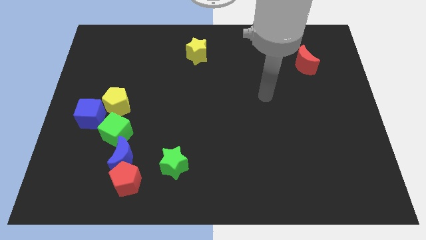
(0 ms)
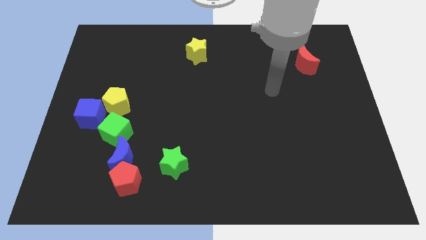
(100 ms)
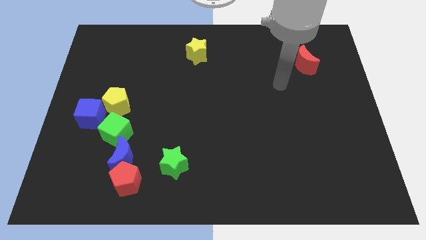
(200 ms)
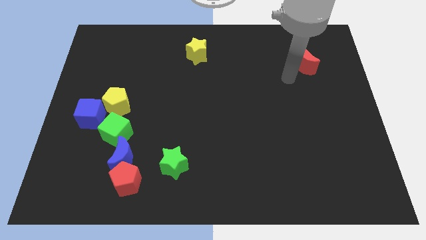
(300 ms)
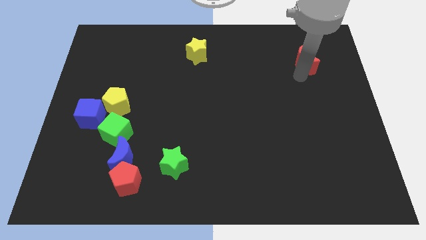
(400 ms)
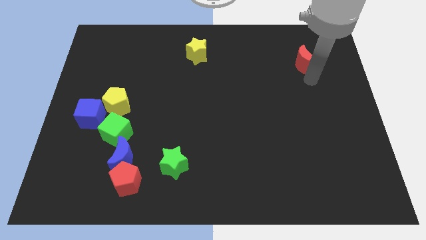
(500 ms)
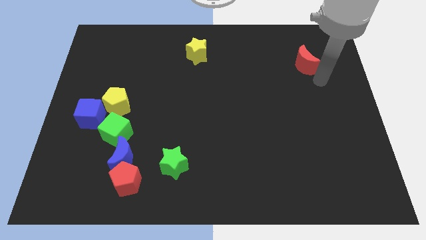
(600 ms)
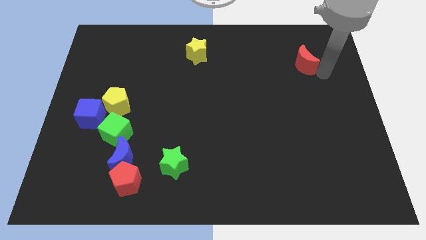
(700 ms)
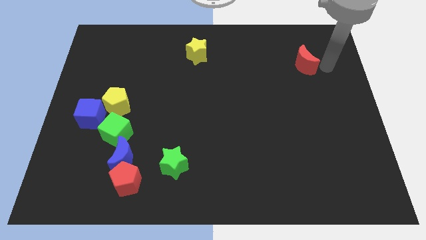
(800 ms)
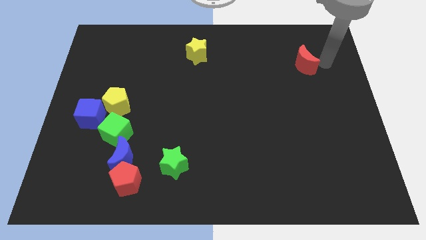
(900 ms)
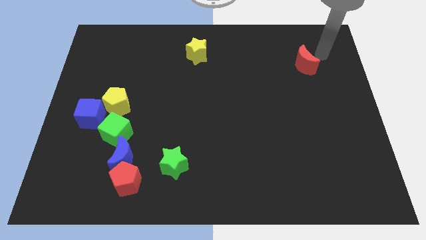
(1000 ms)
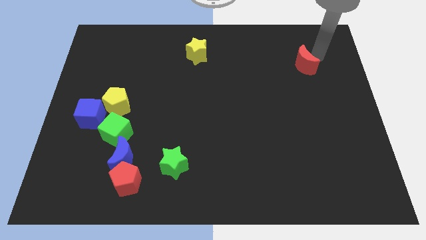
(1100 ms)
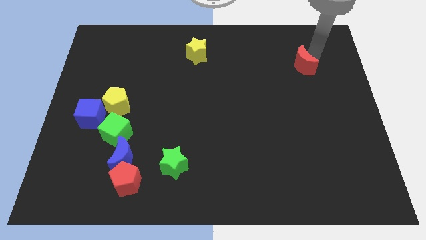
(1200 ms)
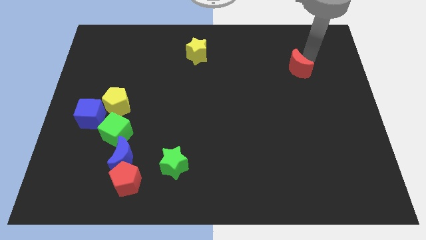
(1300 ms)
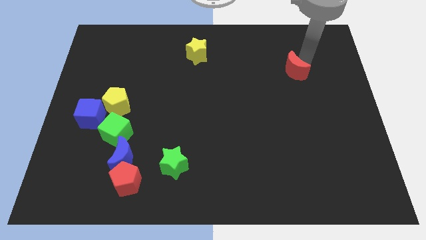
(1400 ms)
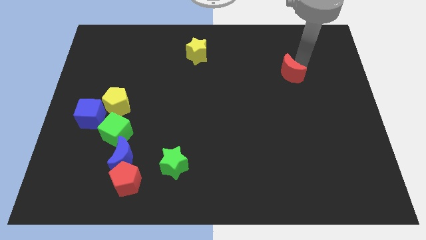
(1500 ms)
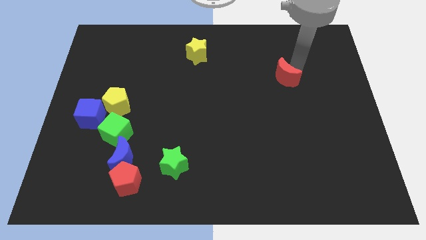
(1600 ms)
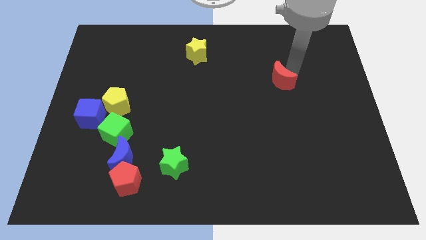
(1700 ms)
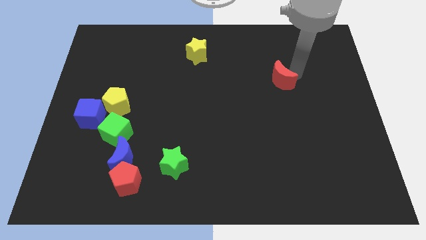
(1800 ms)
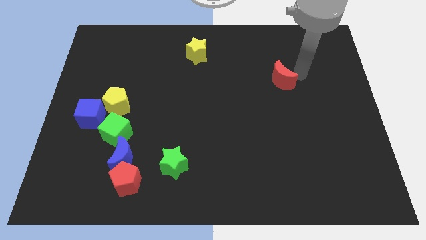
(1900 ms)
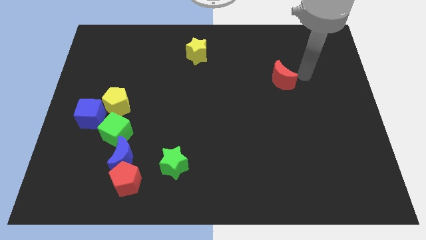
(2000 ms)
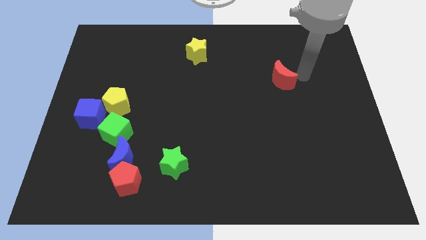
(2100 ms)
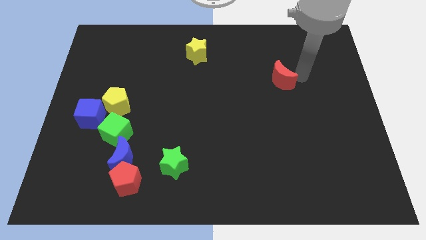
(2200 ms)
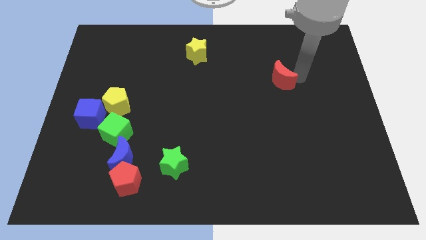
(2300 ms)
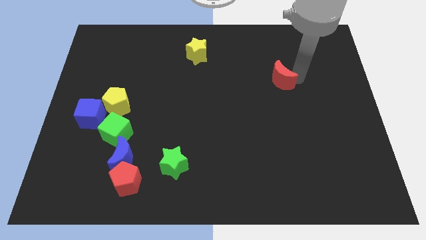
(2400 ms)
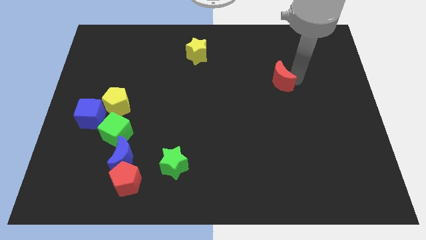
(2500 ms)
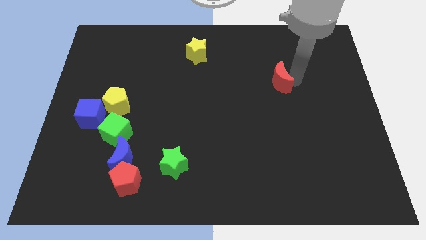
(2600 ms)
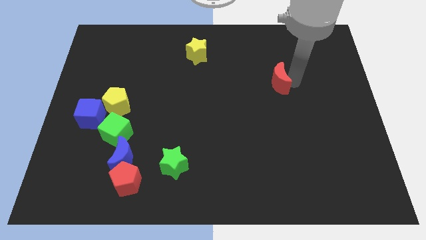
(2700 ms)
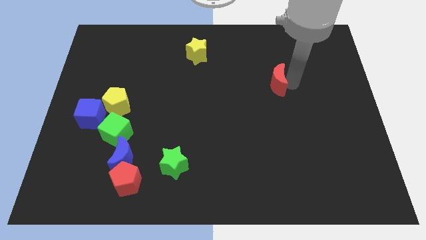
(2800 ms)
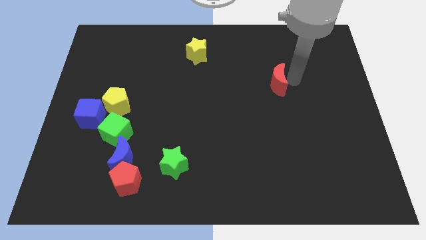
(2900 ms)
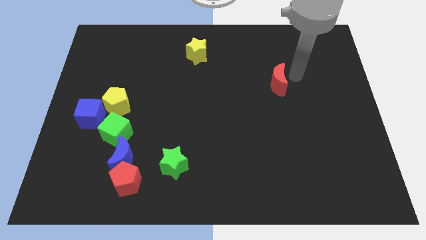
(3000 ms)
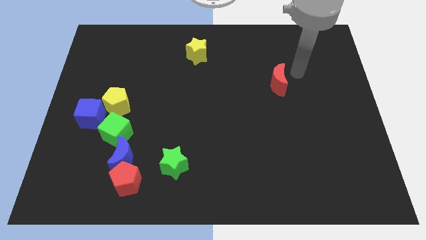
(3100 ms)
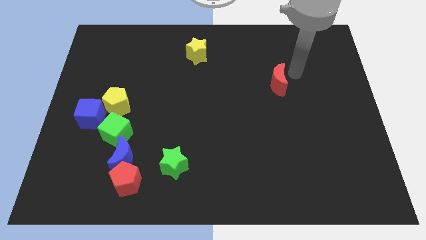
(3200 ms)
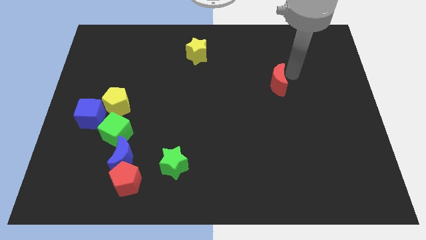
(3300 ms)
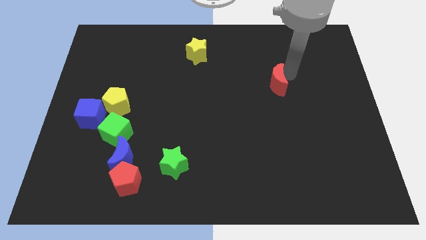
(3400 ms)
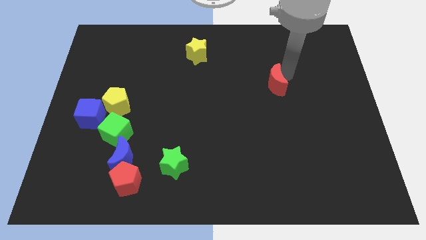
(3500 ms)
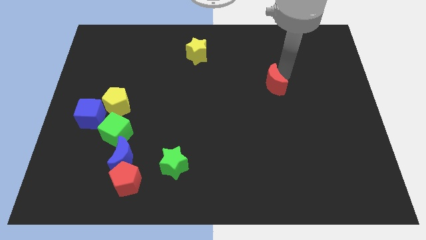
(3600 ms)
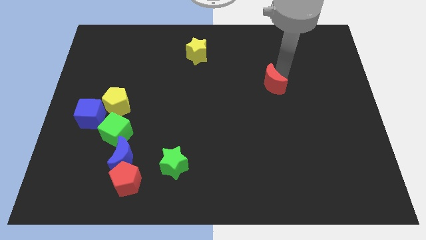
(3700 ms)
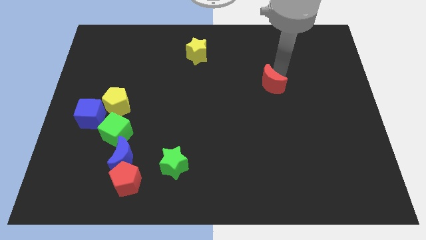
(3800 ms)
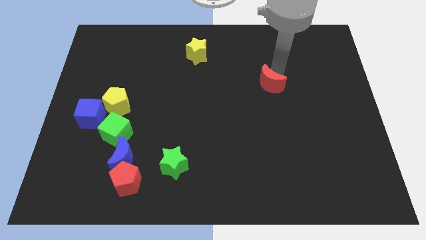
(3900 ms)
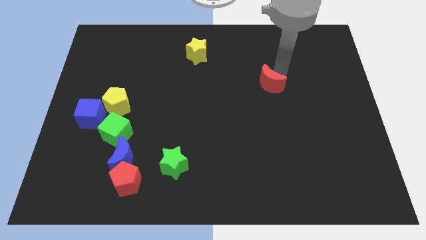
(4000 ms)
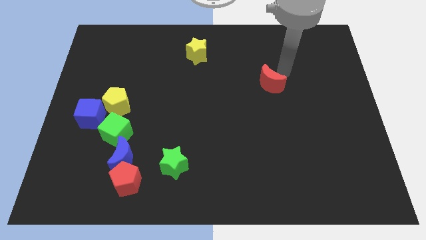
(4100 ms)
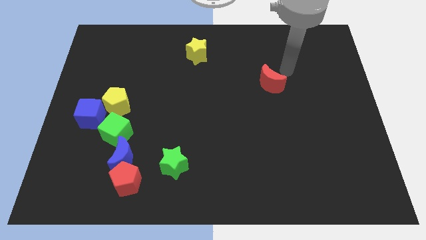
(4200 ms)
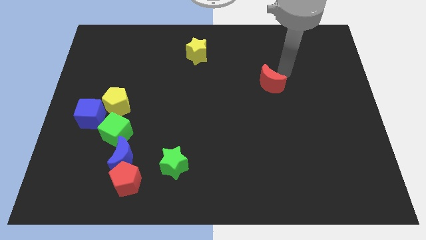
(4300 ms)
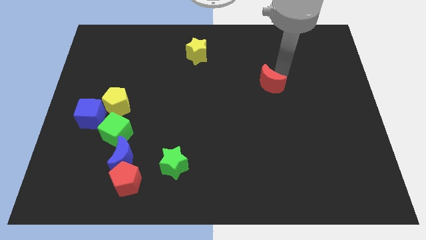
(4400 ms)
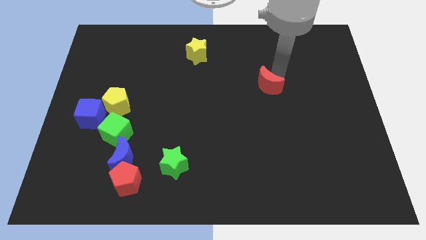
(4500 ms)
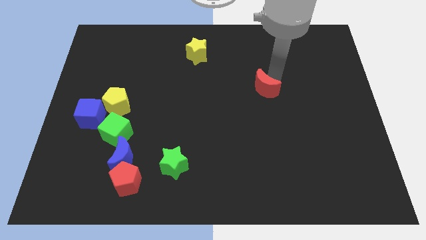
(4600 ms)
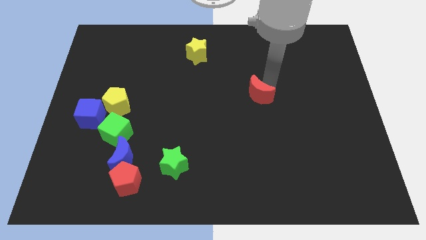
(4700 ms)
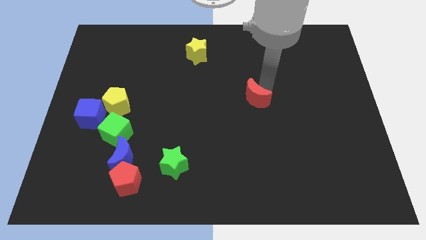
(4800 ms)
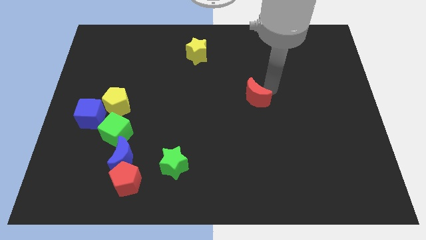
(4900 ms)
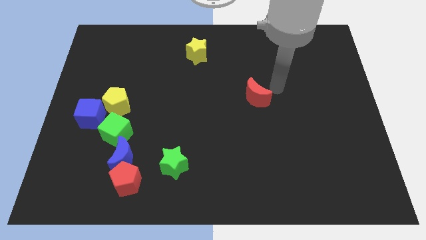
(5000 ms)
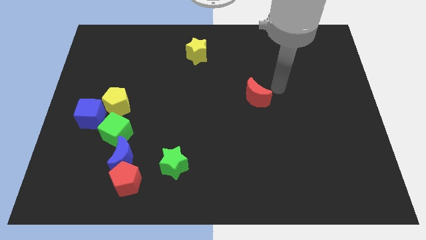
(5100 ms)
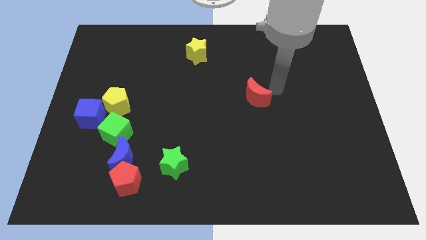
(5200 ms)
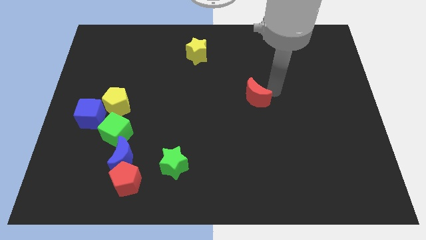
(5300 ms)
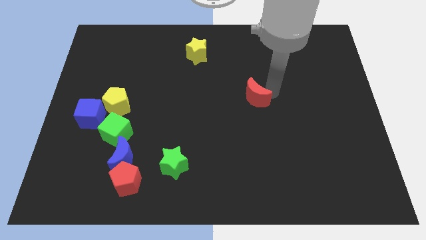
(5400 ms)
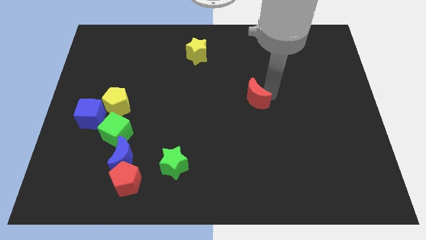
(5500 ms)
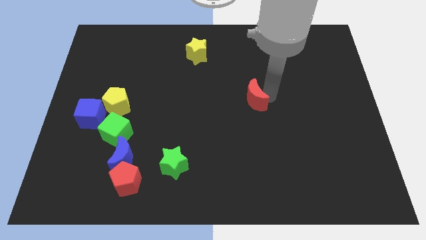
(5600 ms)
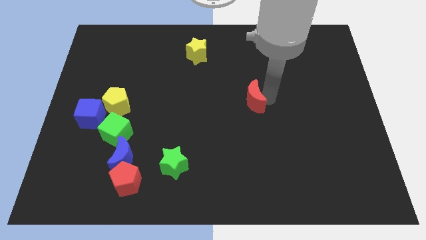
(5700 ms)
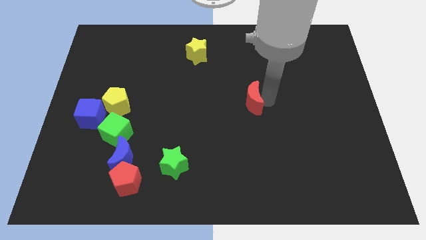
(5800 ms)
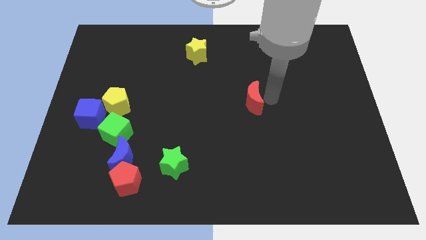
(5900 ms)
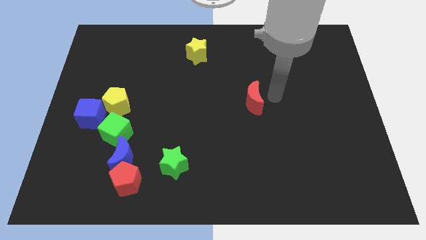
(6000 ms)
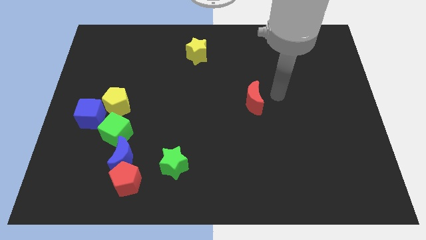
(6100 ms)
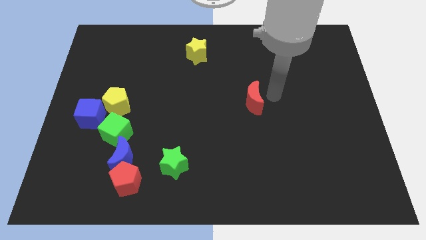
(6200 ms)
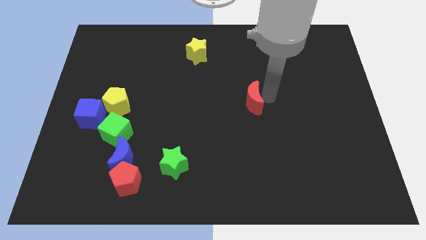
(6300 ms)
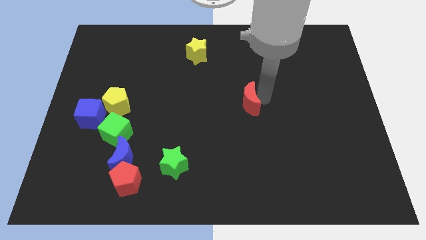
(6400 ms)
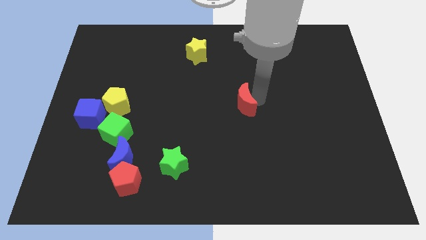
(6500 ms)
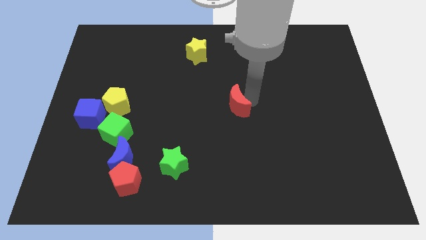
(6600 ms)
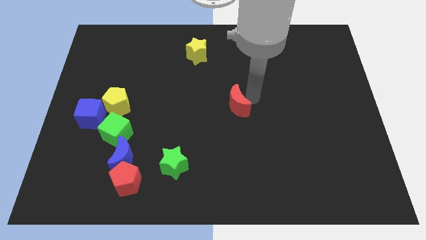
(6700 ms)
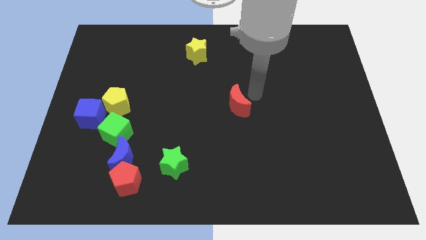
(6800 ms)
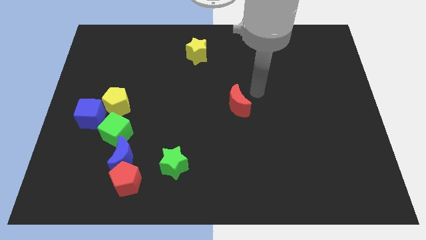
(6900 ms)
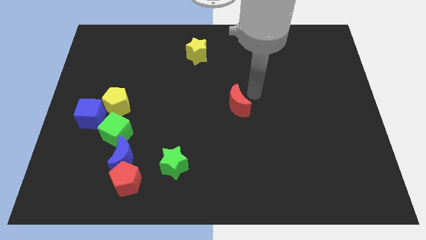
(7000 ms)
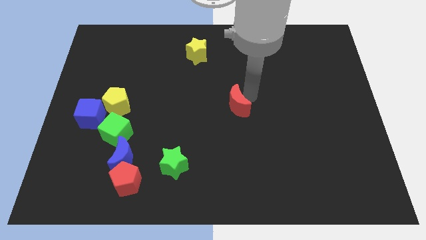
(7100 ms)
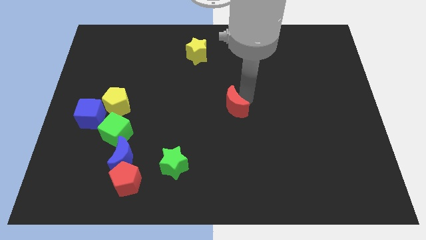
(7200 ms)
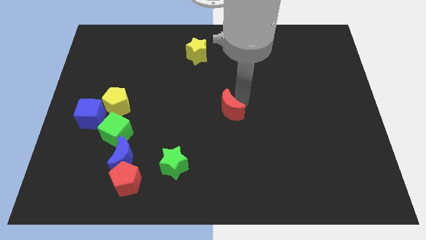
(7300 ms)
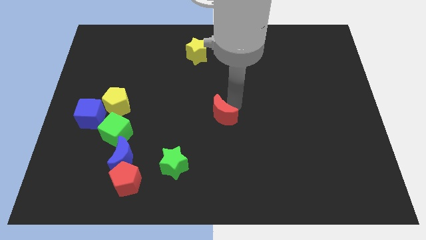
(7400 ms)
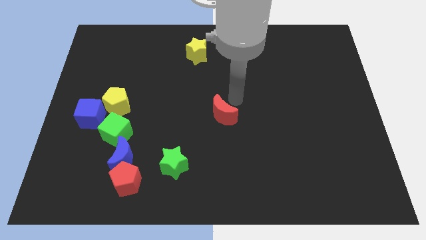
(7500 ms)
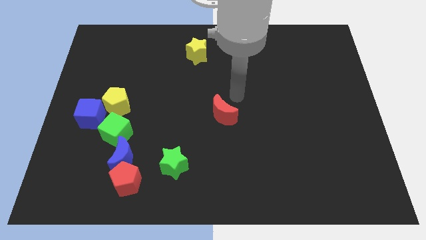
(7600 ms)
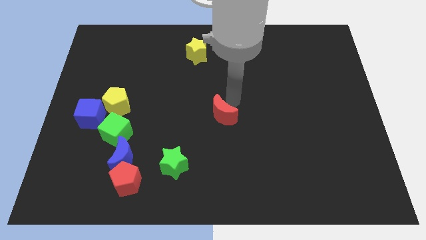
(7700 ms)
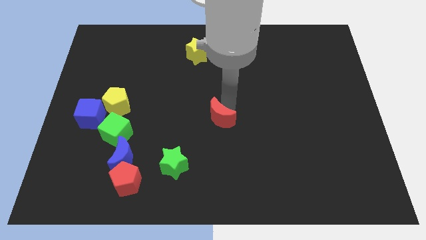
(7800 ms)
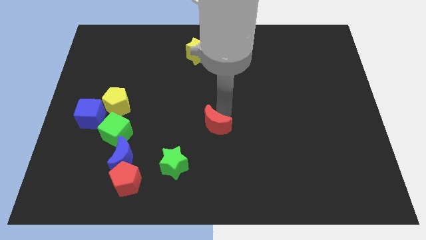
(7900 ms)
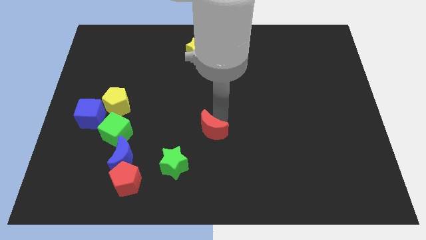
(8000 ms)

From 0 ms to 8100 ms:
push the red moon diagonally up and to the right of the green star
